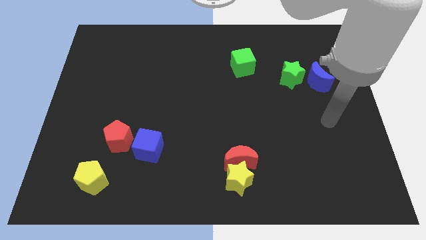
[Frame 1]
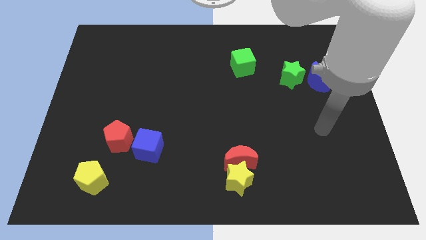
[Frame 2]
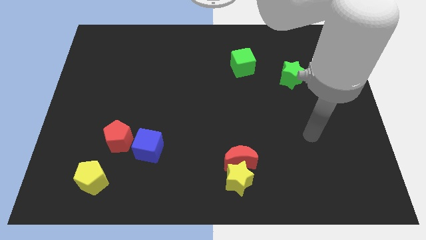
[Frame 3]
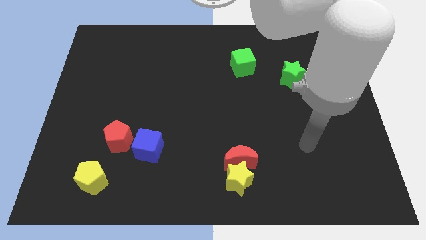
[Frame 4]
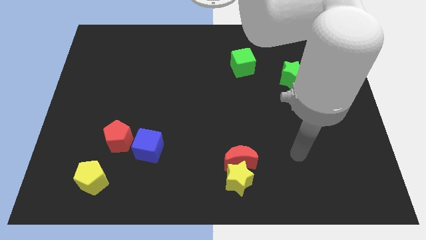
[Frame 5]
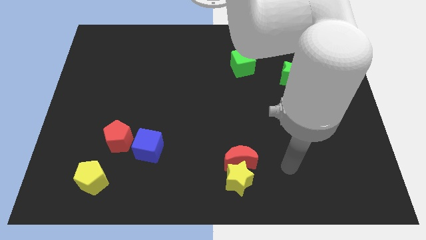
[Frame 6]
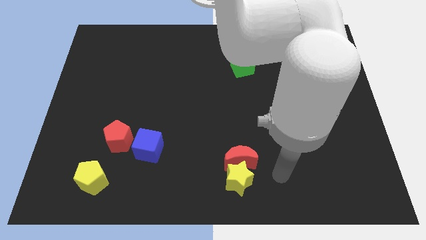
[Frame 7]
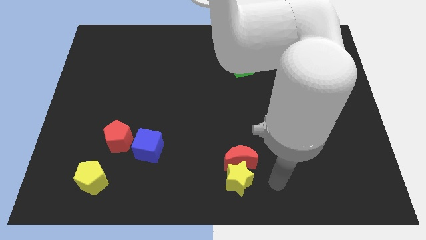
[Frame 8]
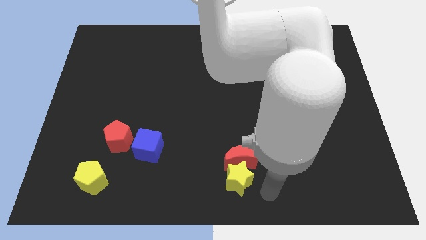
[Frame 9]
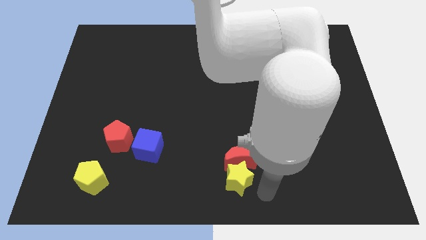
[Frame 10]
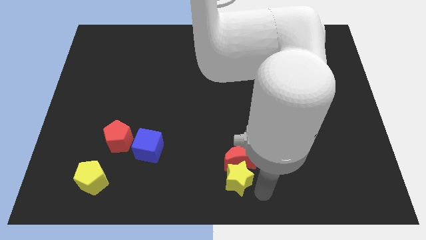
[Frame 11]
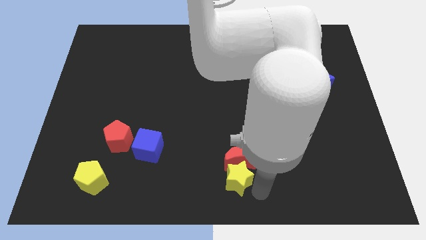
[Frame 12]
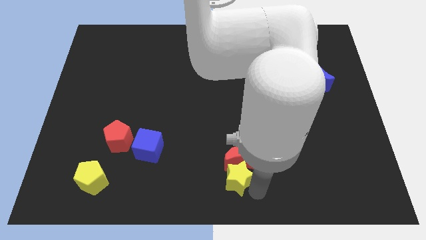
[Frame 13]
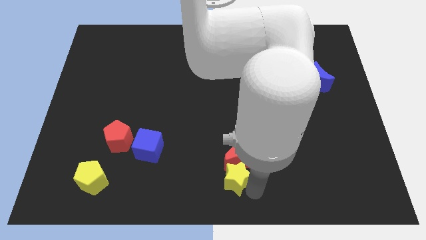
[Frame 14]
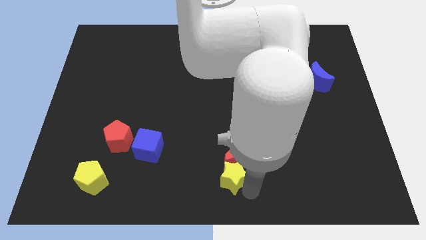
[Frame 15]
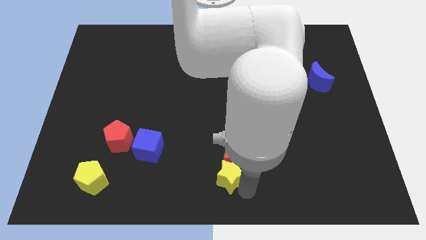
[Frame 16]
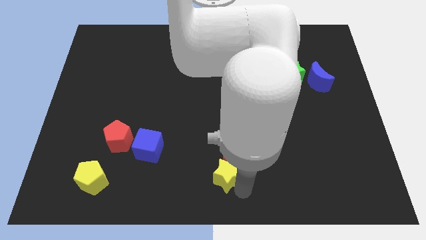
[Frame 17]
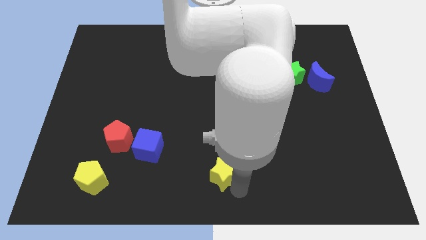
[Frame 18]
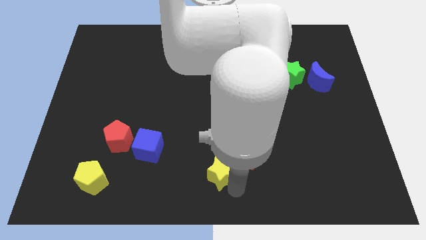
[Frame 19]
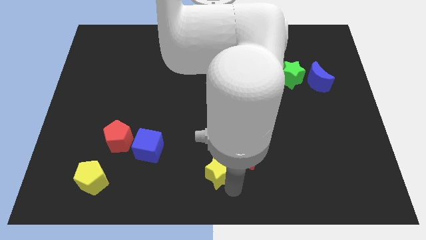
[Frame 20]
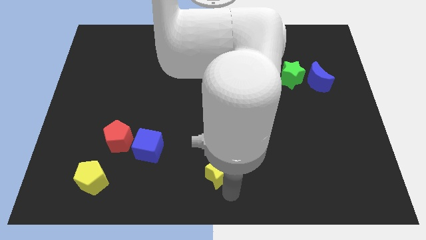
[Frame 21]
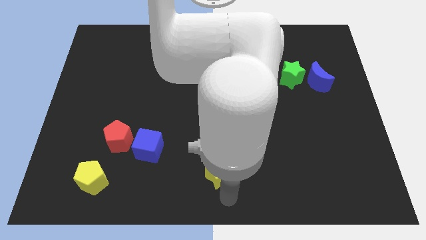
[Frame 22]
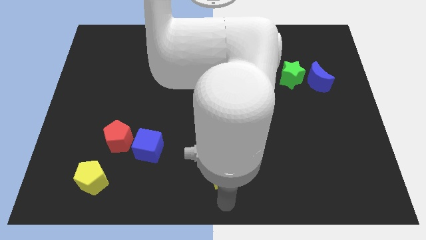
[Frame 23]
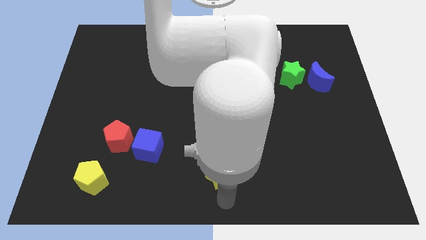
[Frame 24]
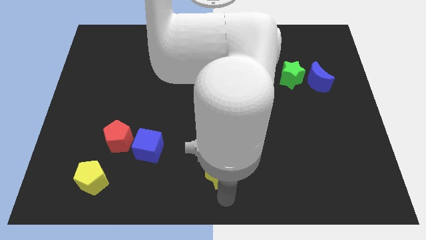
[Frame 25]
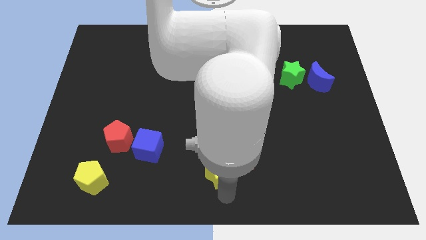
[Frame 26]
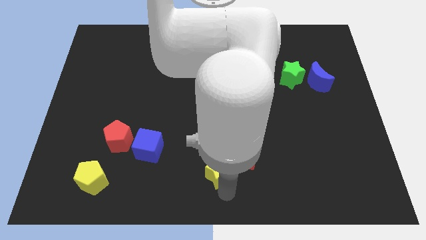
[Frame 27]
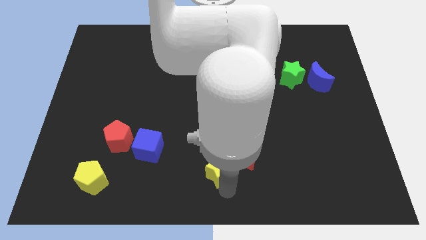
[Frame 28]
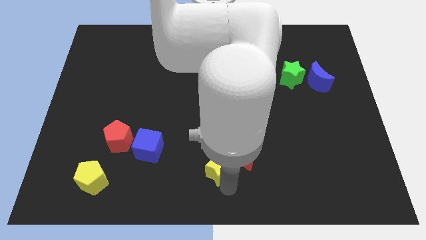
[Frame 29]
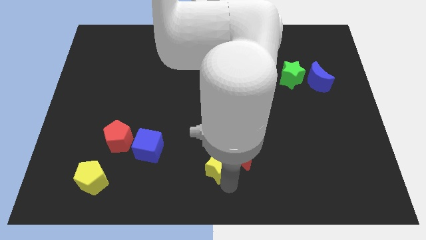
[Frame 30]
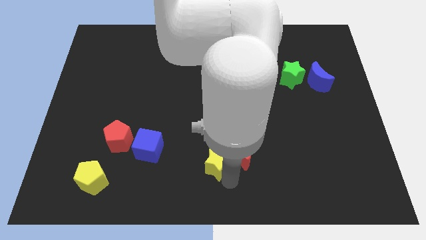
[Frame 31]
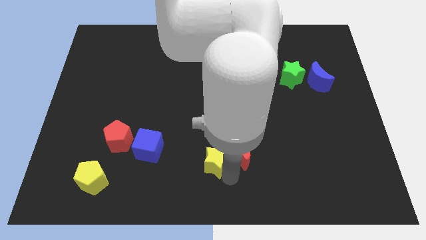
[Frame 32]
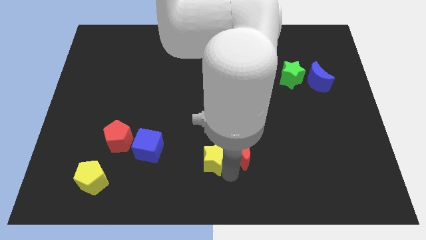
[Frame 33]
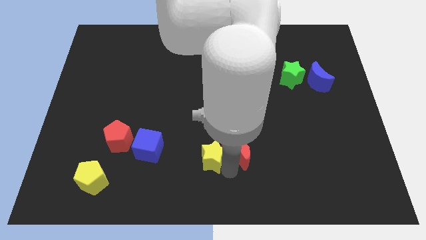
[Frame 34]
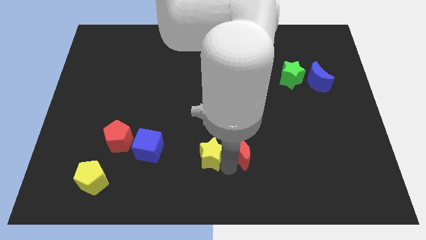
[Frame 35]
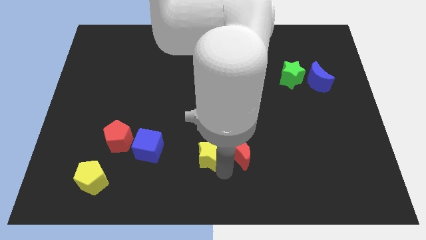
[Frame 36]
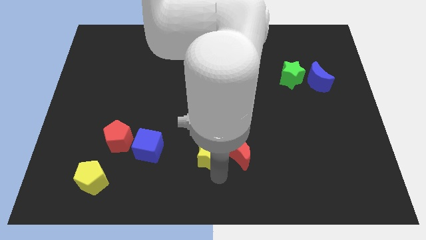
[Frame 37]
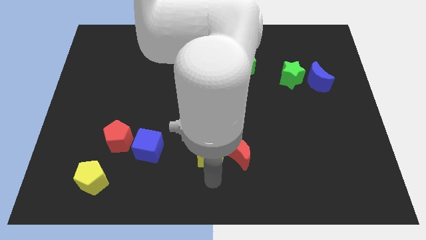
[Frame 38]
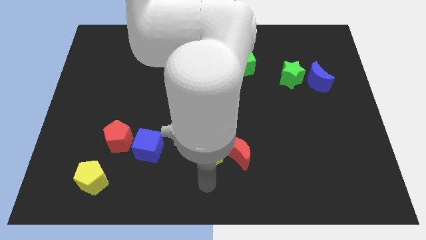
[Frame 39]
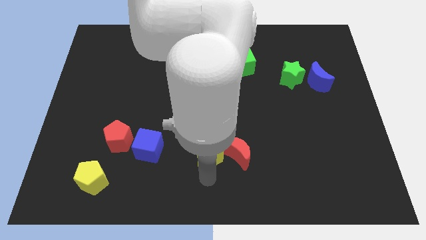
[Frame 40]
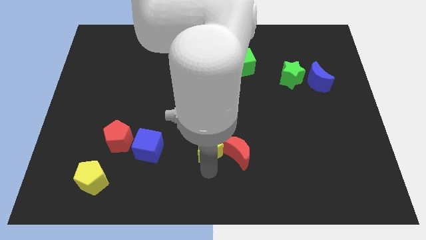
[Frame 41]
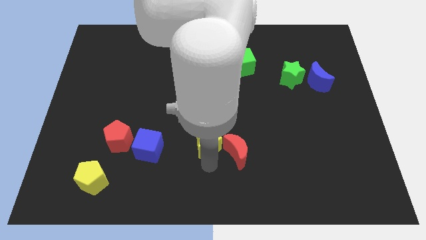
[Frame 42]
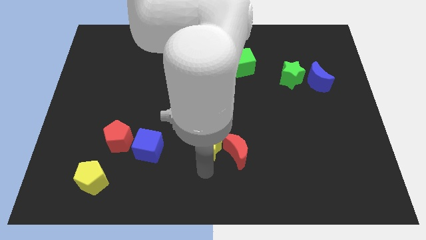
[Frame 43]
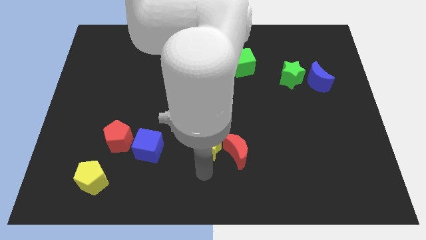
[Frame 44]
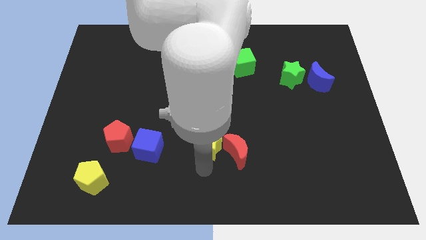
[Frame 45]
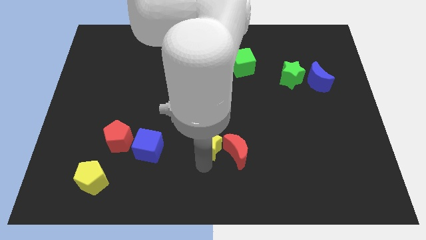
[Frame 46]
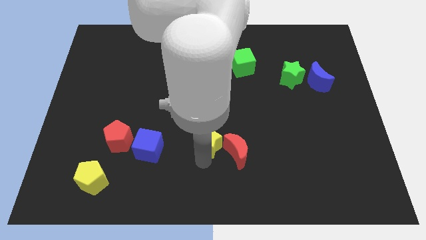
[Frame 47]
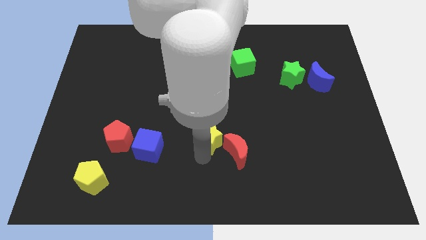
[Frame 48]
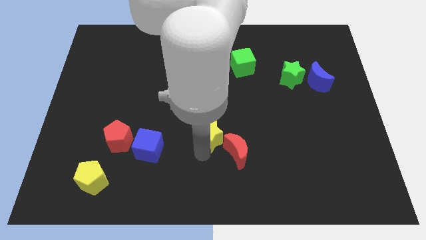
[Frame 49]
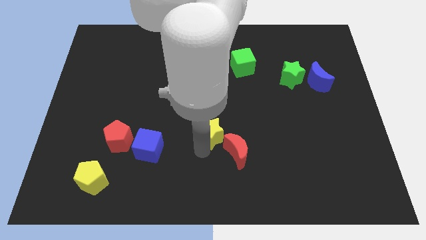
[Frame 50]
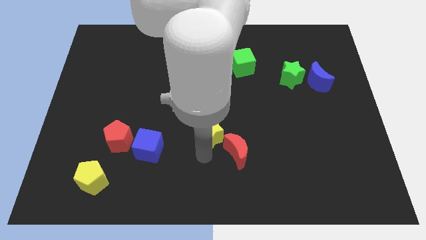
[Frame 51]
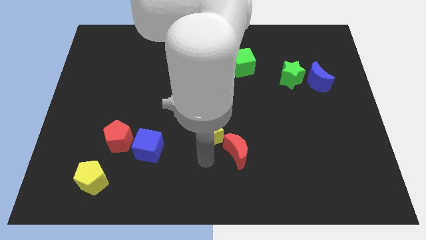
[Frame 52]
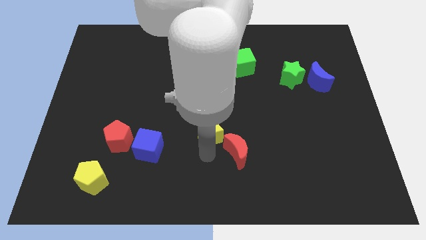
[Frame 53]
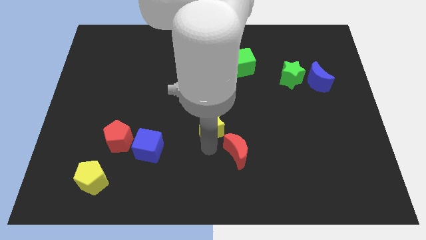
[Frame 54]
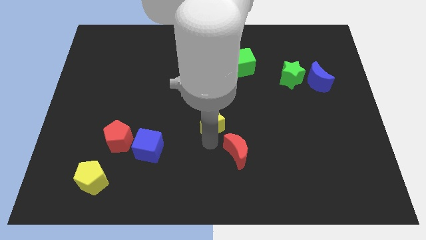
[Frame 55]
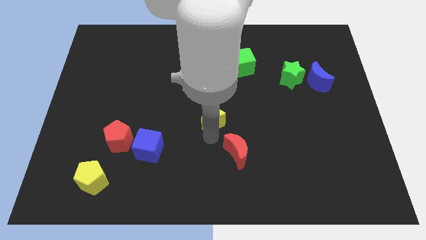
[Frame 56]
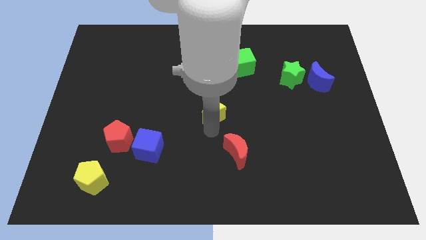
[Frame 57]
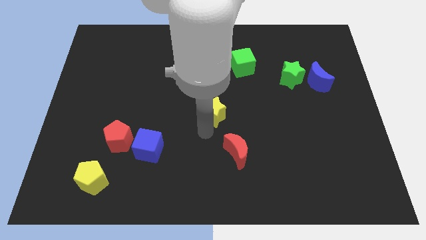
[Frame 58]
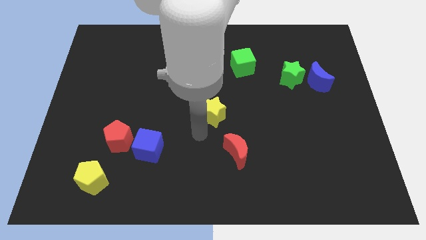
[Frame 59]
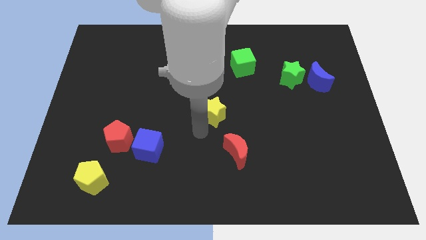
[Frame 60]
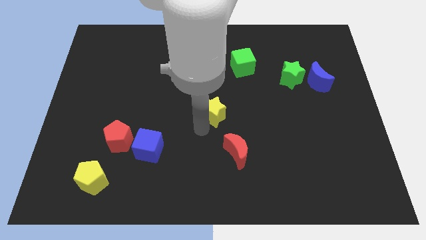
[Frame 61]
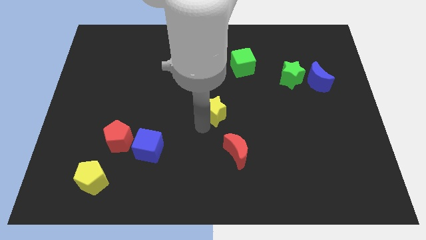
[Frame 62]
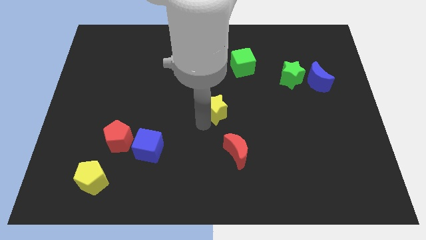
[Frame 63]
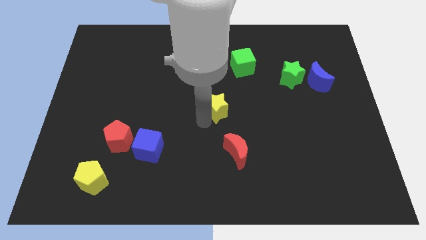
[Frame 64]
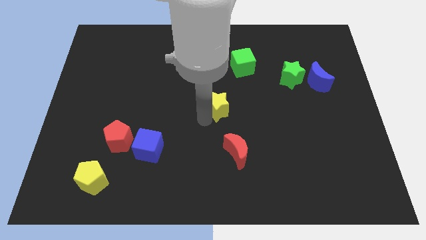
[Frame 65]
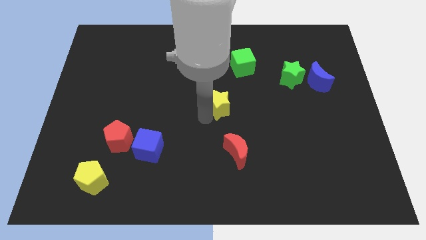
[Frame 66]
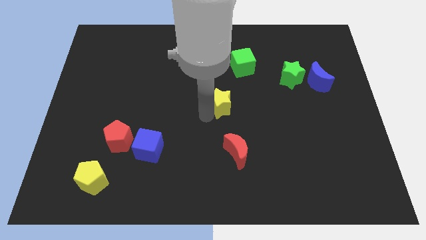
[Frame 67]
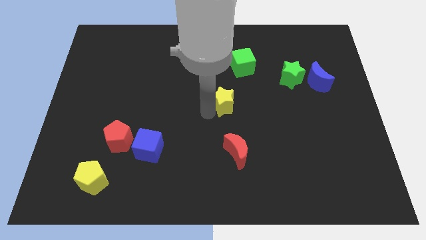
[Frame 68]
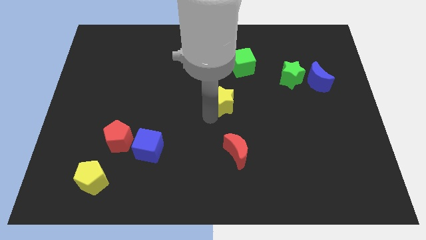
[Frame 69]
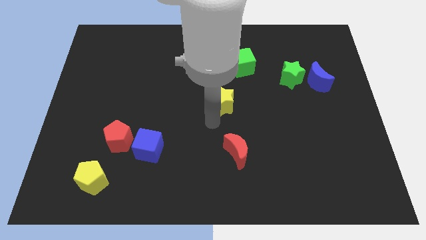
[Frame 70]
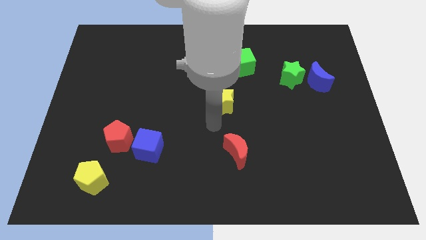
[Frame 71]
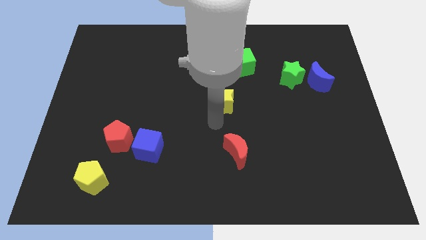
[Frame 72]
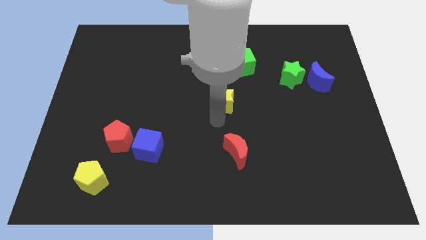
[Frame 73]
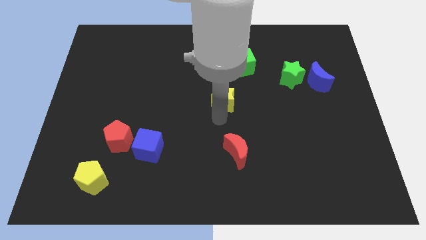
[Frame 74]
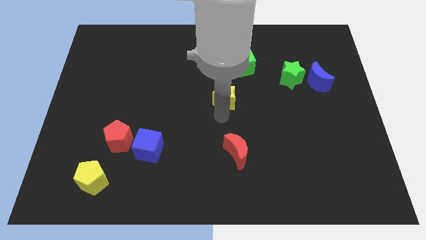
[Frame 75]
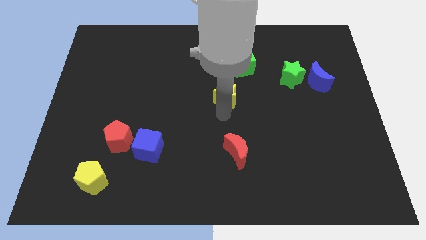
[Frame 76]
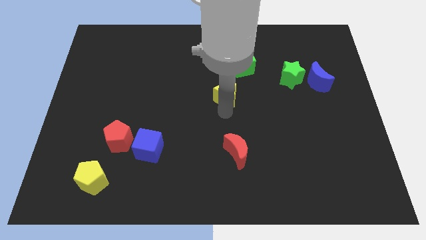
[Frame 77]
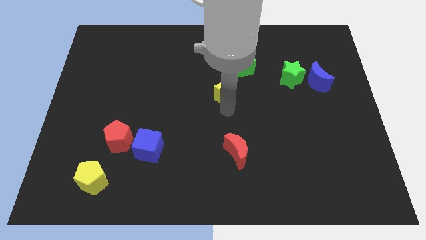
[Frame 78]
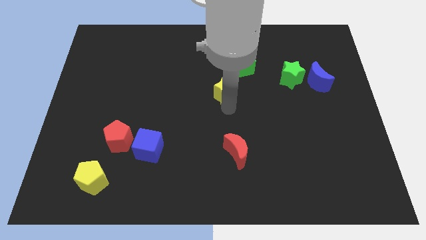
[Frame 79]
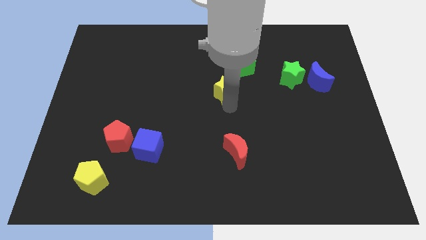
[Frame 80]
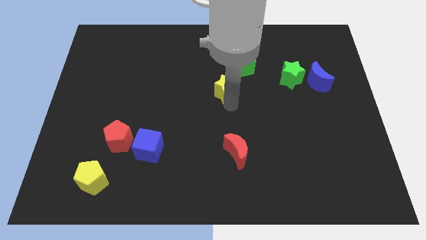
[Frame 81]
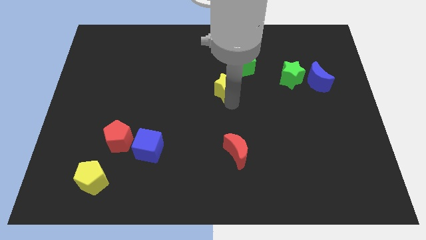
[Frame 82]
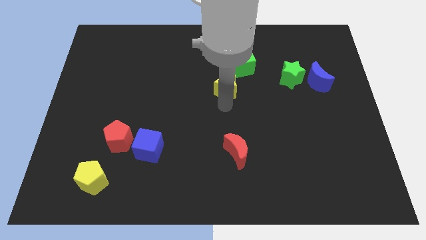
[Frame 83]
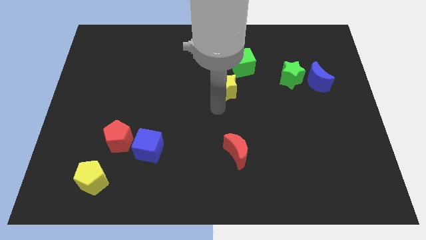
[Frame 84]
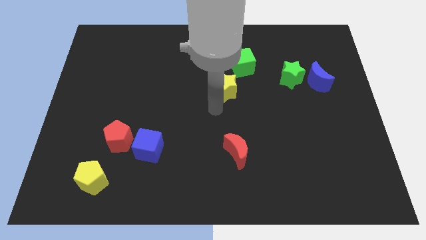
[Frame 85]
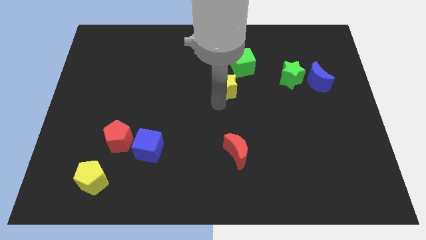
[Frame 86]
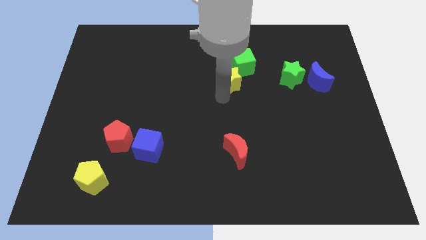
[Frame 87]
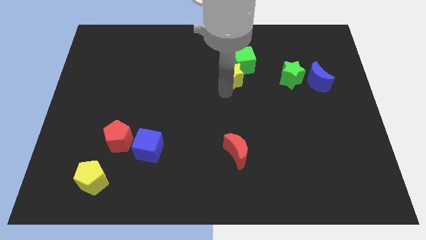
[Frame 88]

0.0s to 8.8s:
slide the yellow star to the green cube
